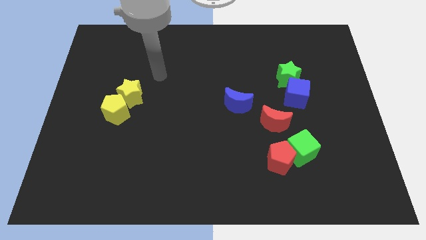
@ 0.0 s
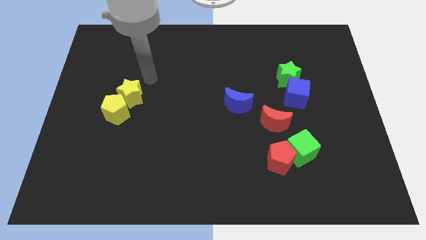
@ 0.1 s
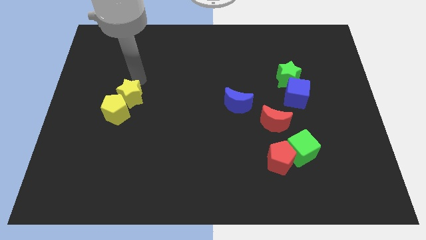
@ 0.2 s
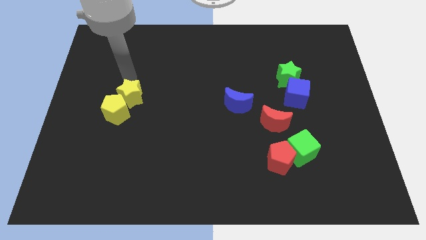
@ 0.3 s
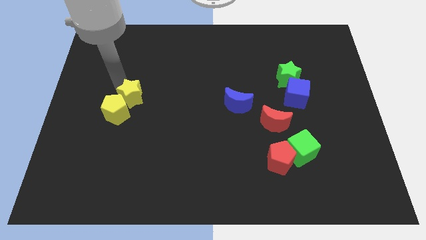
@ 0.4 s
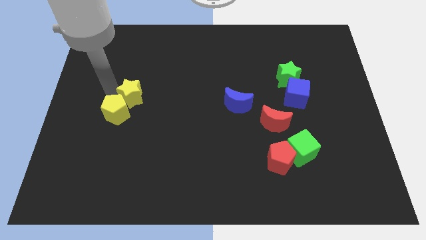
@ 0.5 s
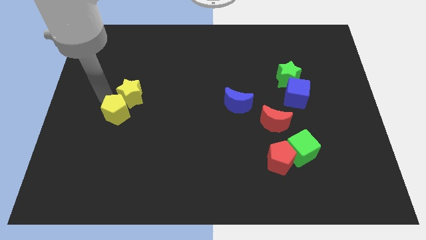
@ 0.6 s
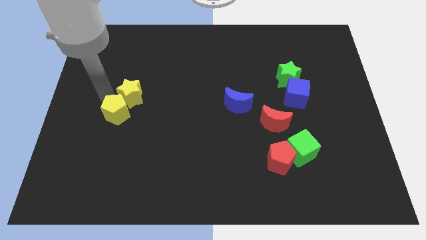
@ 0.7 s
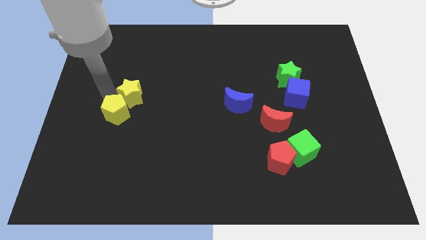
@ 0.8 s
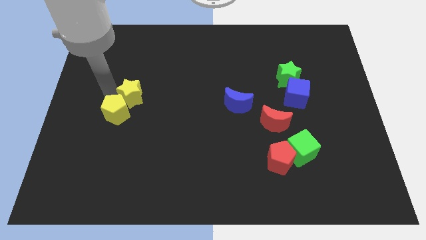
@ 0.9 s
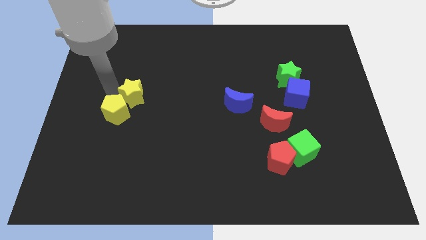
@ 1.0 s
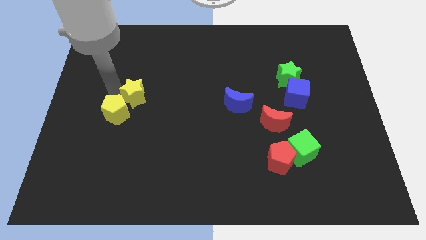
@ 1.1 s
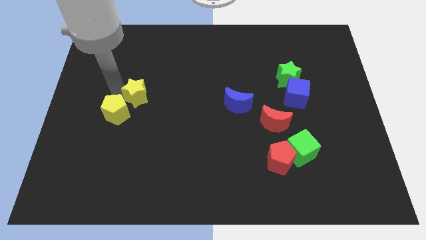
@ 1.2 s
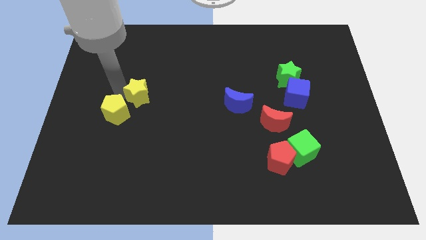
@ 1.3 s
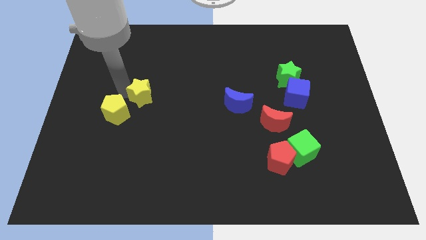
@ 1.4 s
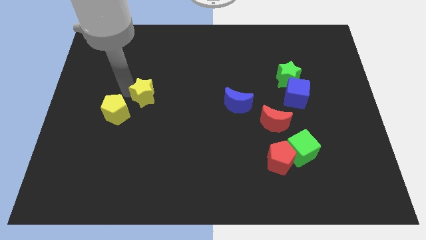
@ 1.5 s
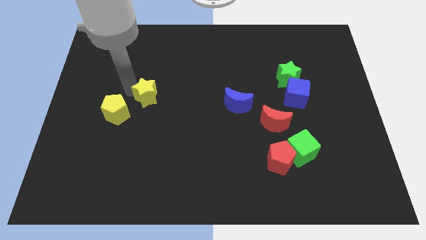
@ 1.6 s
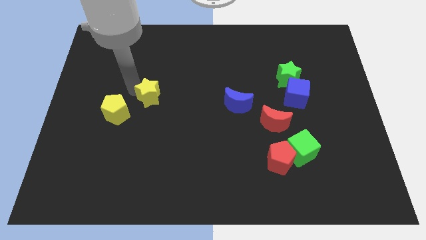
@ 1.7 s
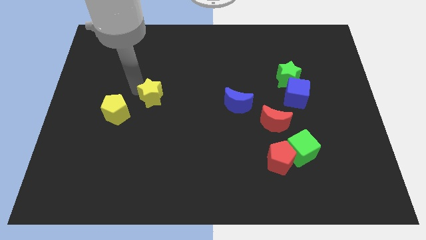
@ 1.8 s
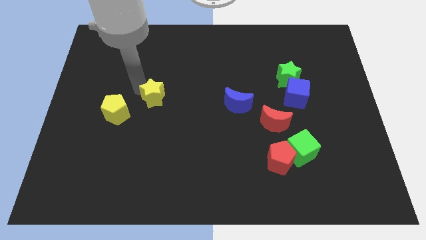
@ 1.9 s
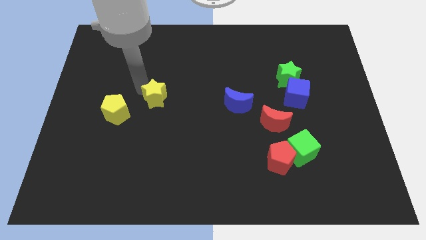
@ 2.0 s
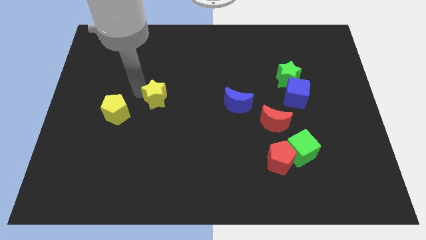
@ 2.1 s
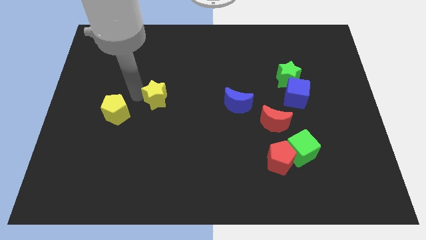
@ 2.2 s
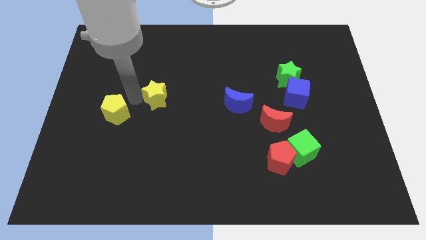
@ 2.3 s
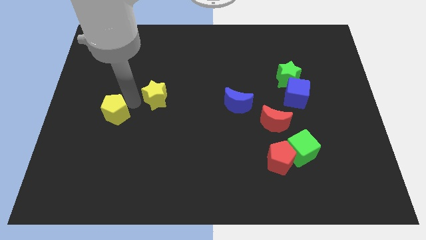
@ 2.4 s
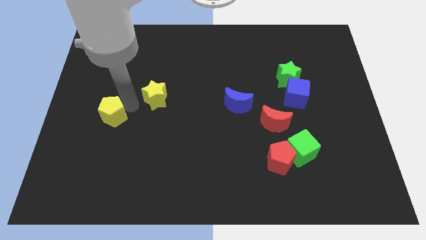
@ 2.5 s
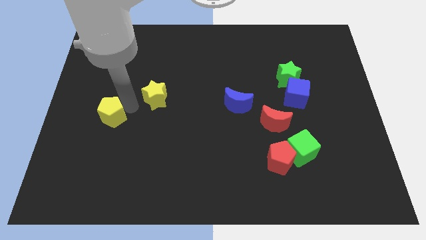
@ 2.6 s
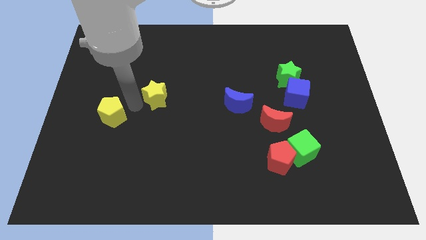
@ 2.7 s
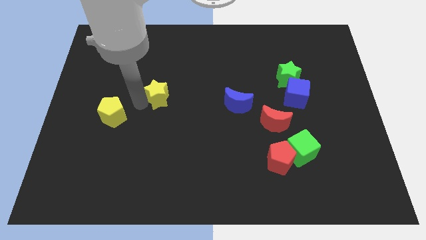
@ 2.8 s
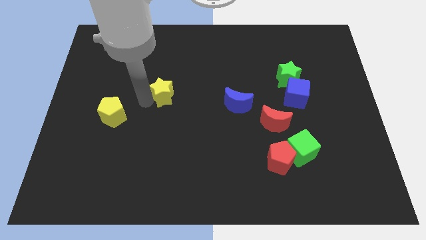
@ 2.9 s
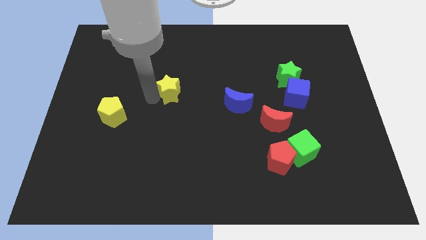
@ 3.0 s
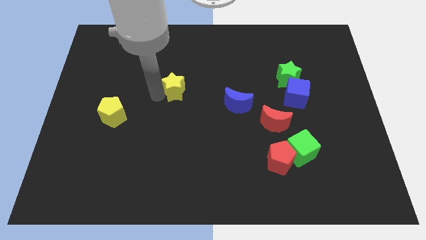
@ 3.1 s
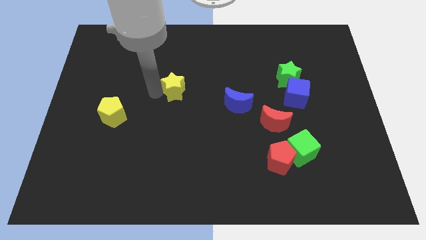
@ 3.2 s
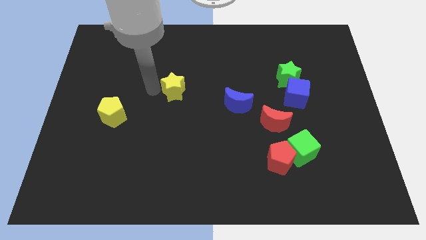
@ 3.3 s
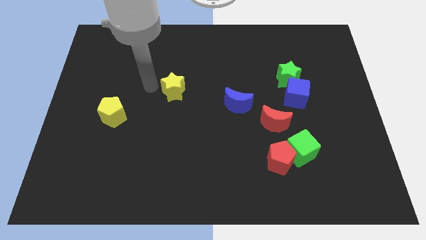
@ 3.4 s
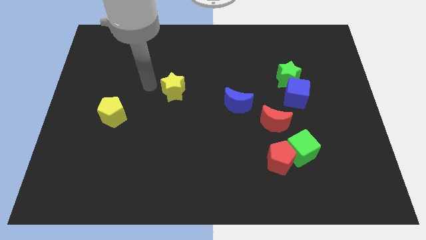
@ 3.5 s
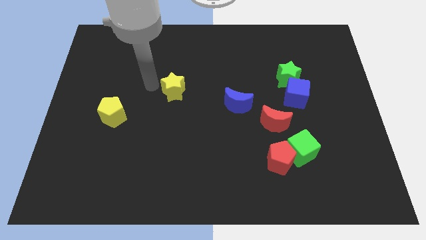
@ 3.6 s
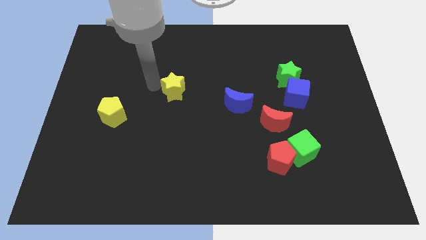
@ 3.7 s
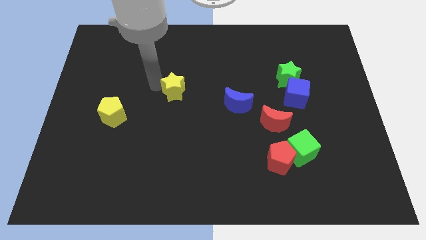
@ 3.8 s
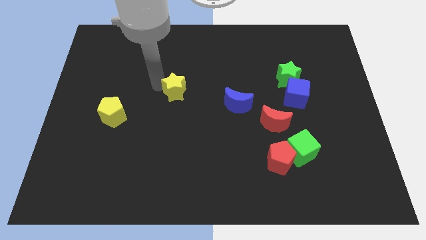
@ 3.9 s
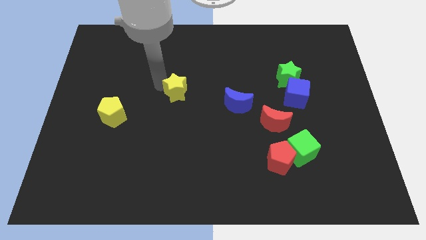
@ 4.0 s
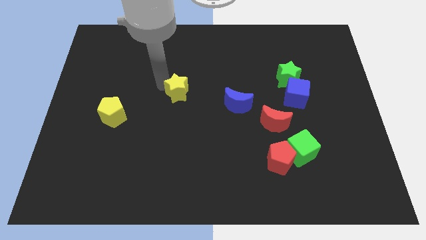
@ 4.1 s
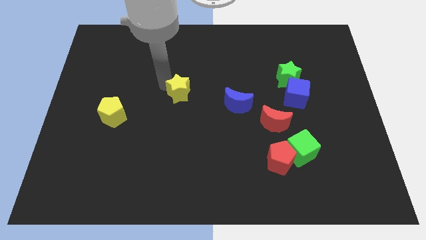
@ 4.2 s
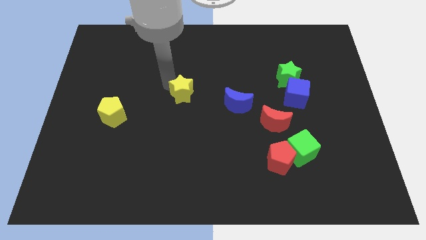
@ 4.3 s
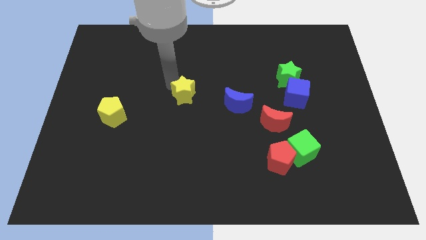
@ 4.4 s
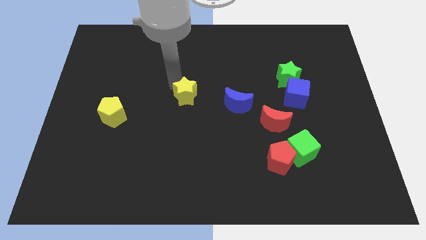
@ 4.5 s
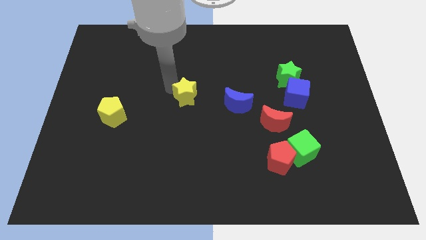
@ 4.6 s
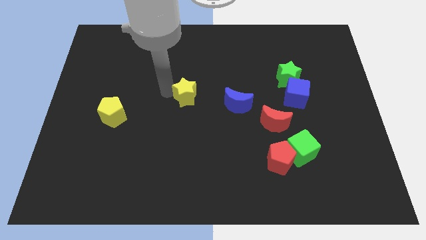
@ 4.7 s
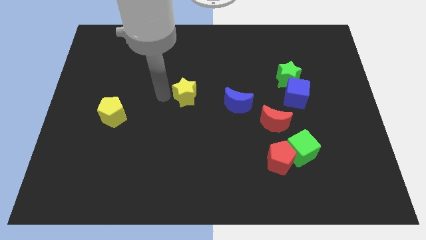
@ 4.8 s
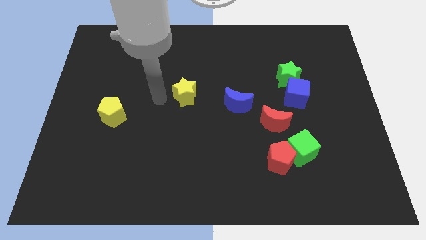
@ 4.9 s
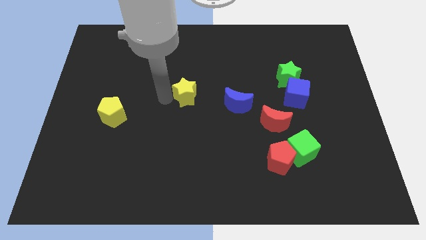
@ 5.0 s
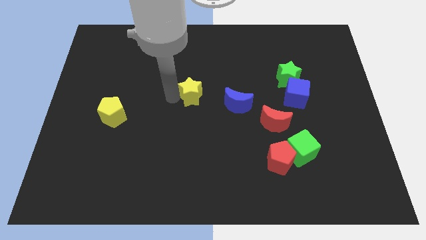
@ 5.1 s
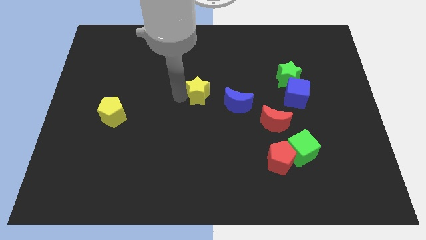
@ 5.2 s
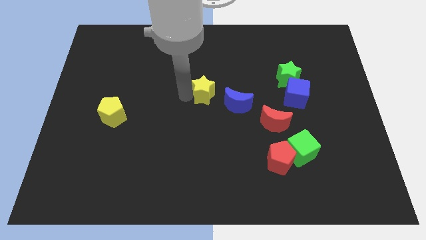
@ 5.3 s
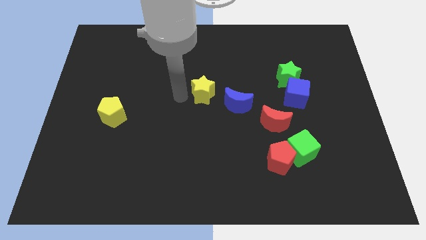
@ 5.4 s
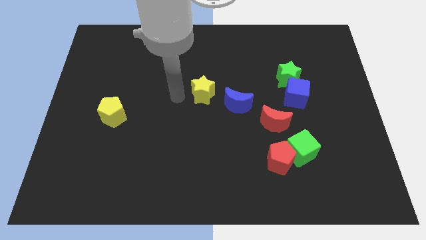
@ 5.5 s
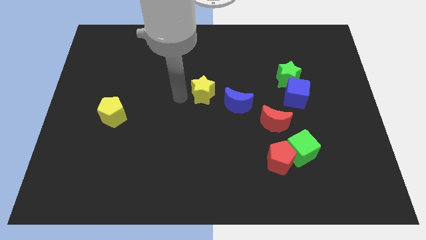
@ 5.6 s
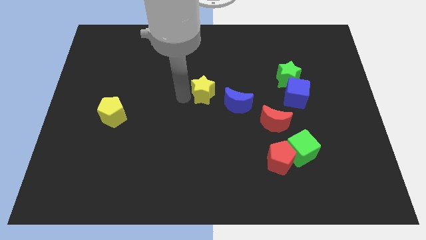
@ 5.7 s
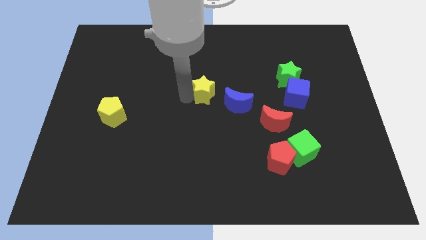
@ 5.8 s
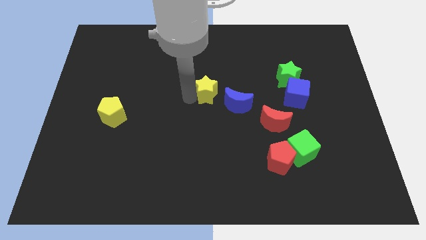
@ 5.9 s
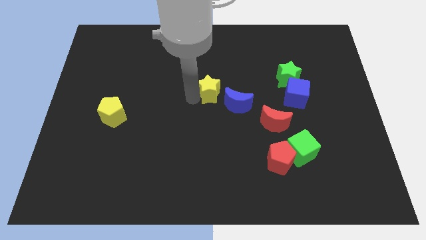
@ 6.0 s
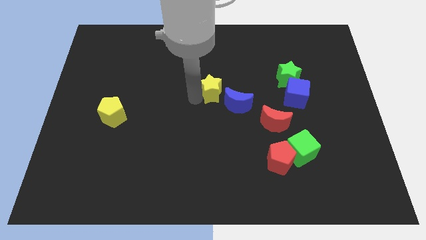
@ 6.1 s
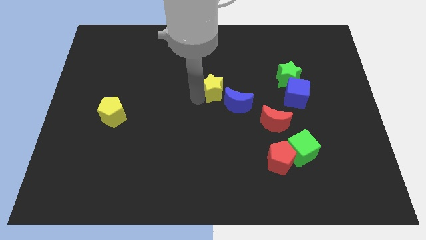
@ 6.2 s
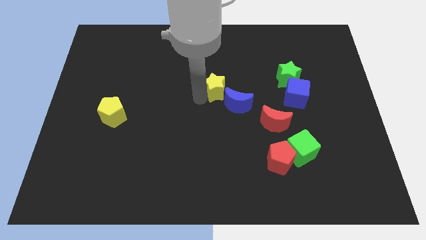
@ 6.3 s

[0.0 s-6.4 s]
move the yellow star to the right

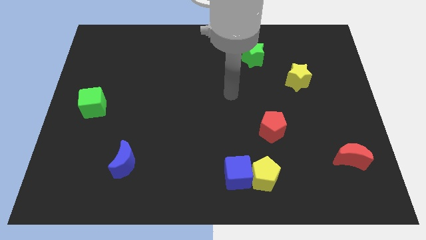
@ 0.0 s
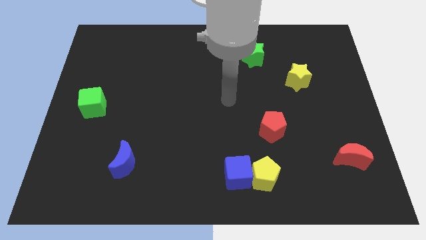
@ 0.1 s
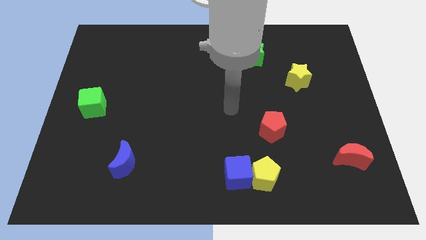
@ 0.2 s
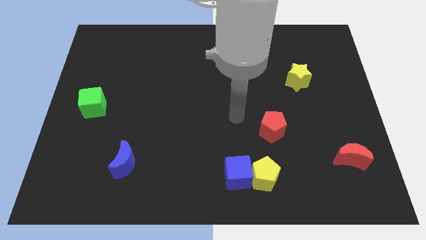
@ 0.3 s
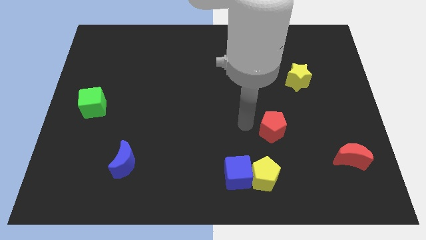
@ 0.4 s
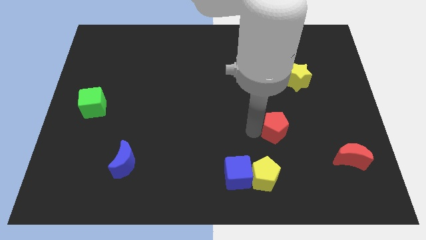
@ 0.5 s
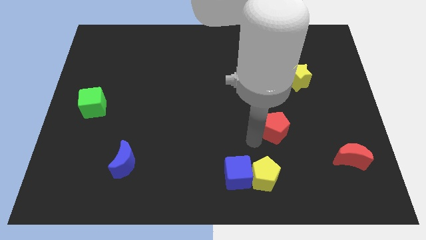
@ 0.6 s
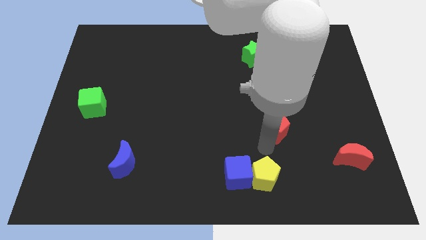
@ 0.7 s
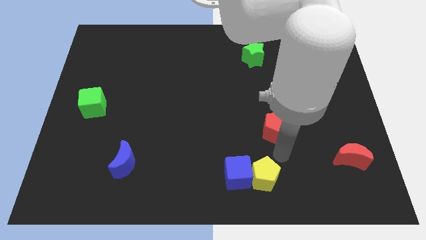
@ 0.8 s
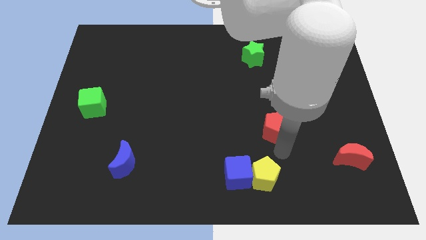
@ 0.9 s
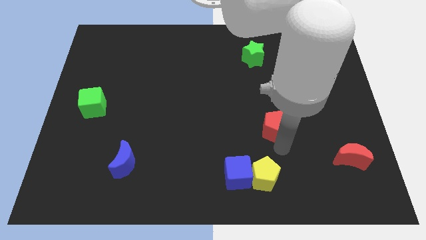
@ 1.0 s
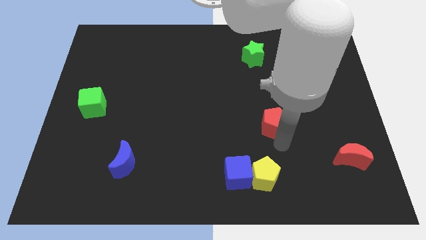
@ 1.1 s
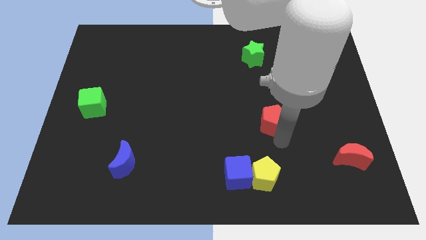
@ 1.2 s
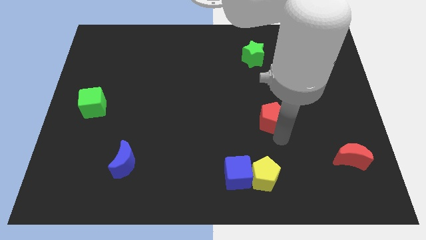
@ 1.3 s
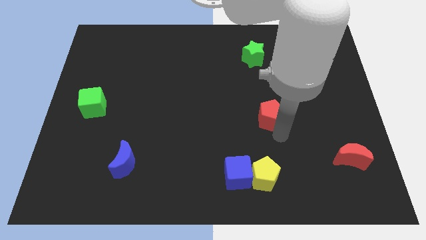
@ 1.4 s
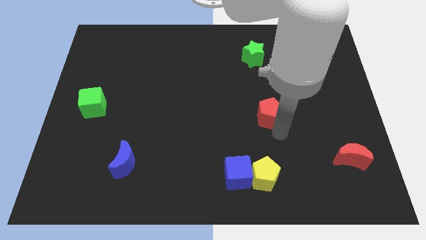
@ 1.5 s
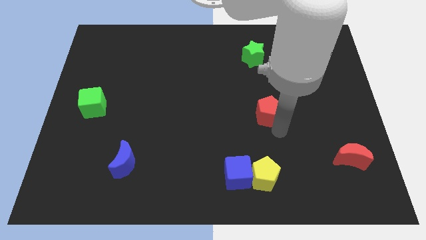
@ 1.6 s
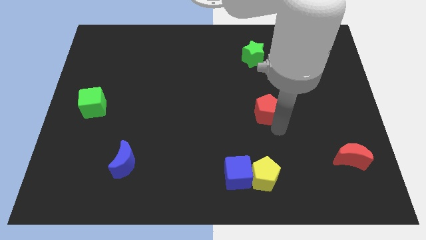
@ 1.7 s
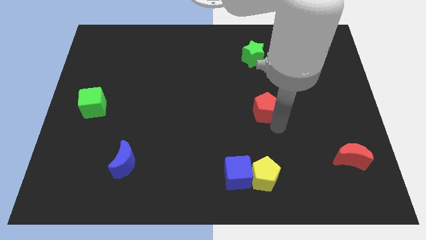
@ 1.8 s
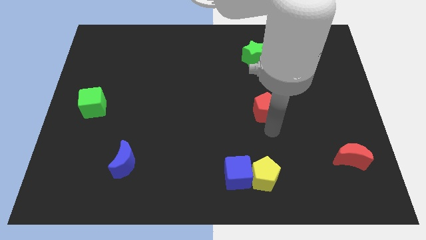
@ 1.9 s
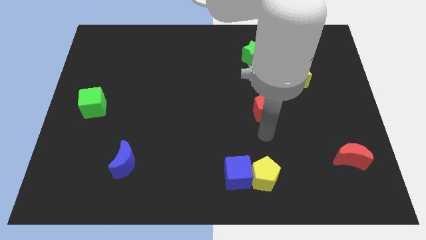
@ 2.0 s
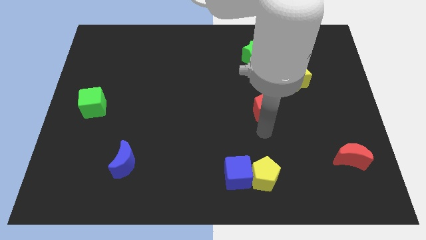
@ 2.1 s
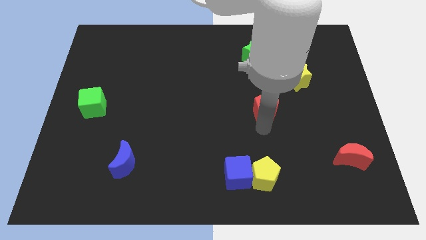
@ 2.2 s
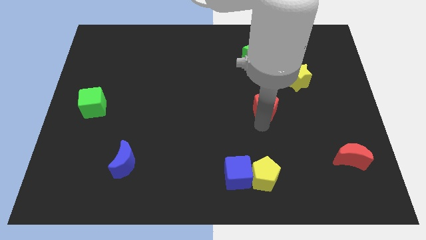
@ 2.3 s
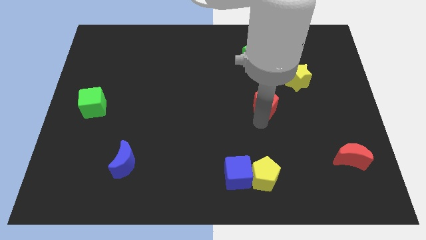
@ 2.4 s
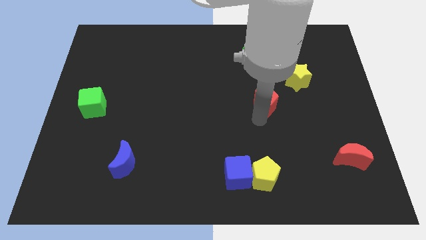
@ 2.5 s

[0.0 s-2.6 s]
slide the red pentagon a little upwards
